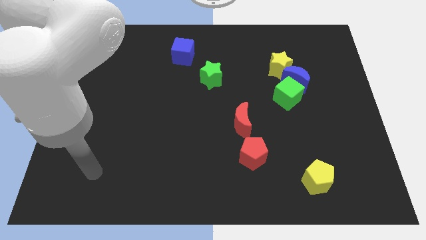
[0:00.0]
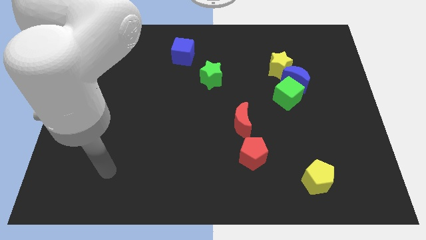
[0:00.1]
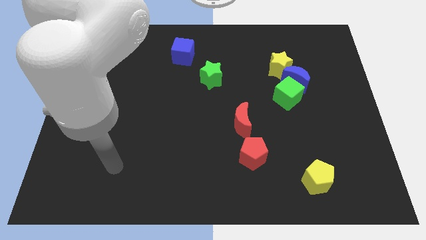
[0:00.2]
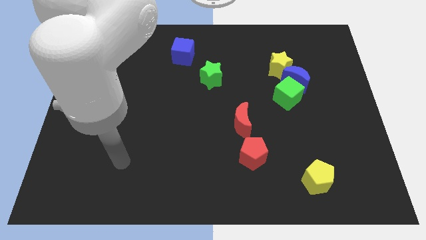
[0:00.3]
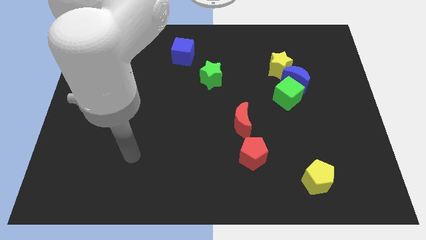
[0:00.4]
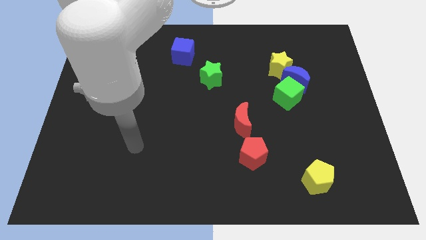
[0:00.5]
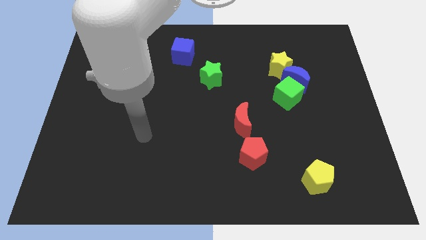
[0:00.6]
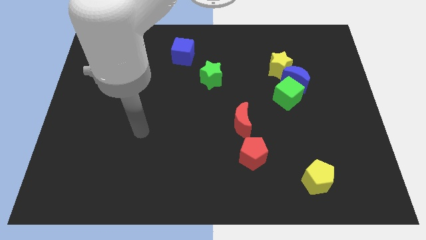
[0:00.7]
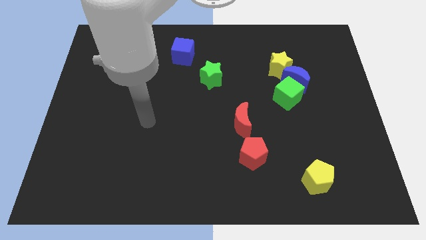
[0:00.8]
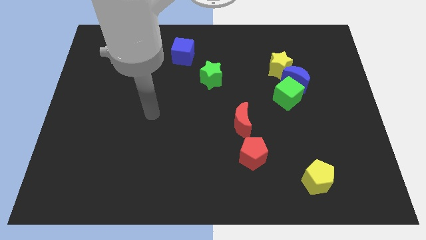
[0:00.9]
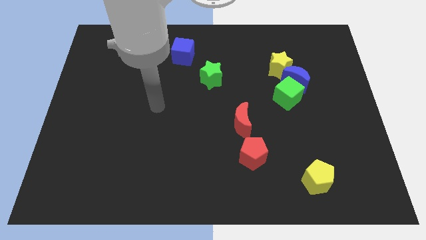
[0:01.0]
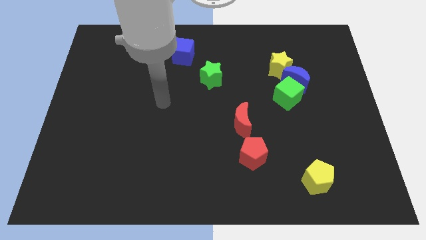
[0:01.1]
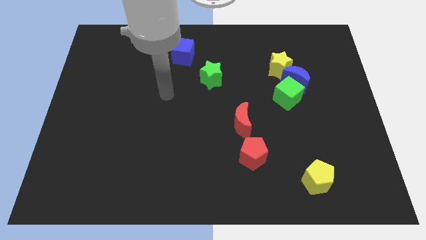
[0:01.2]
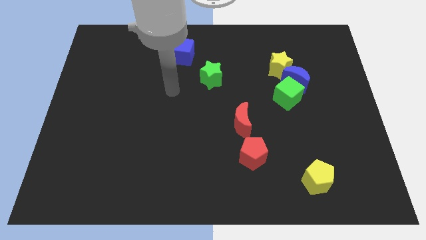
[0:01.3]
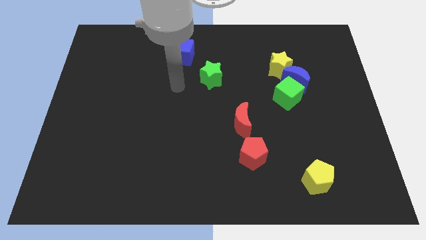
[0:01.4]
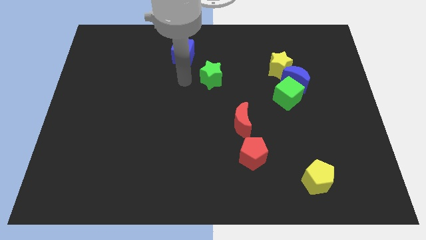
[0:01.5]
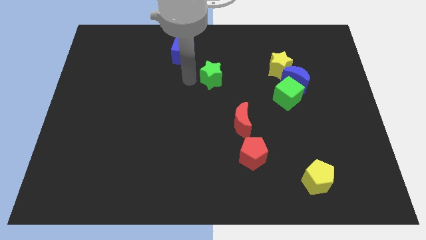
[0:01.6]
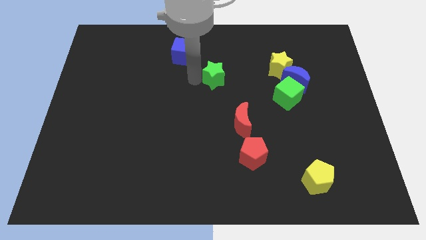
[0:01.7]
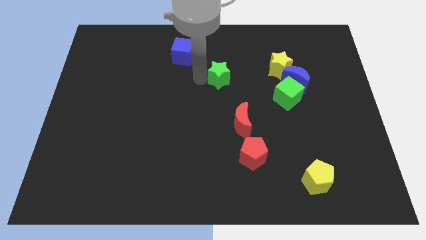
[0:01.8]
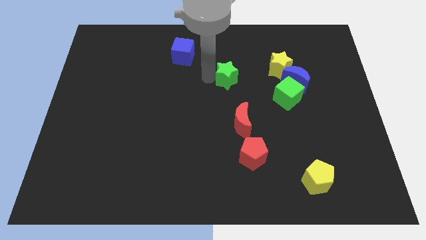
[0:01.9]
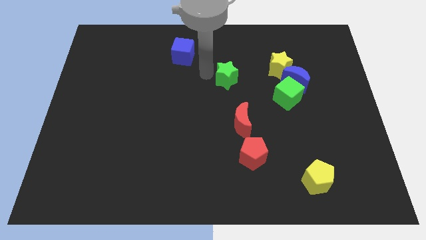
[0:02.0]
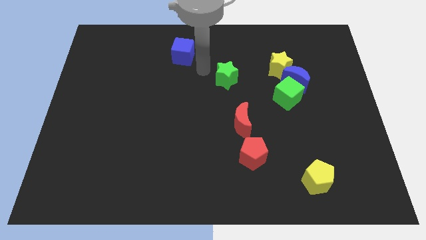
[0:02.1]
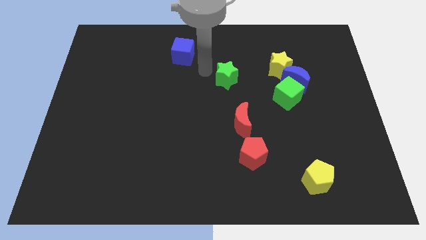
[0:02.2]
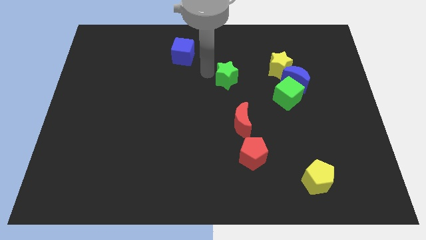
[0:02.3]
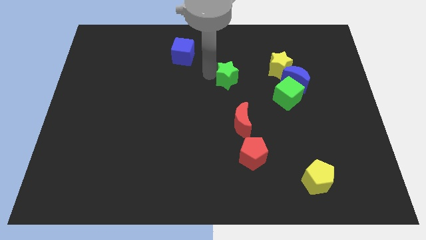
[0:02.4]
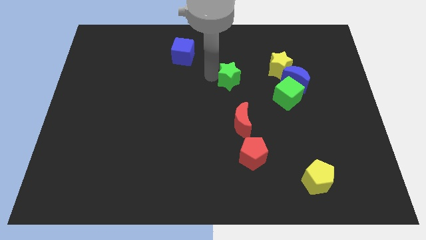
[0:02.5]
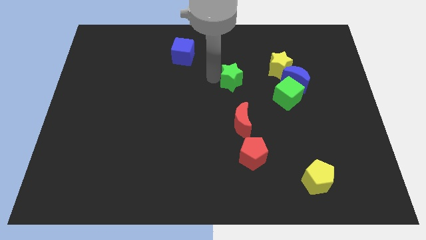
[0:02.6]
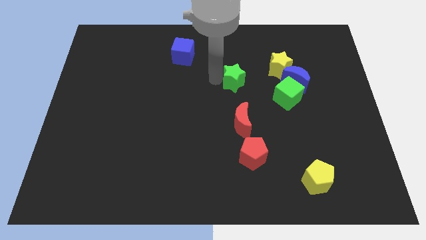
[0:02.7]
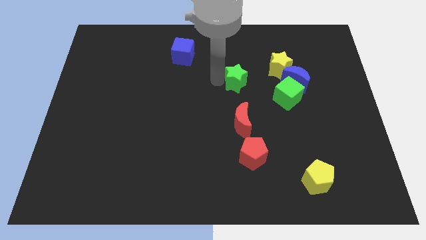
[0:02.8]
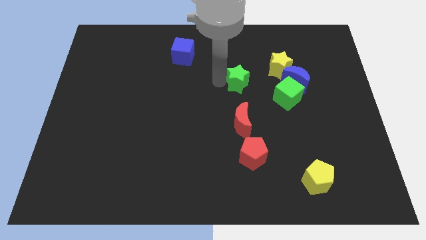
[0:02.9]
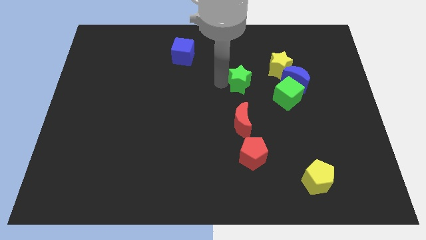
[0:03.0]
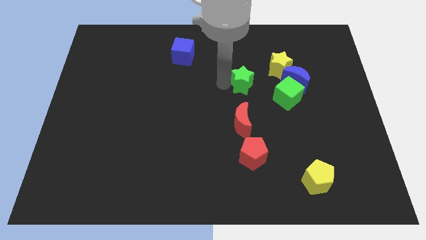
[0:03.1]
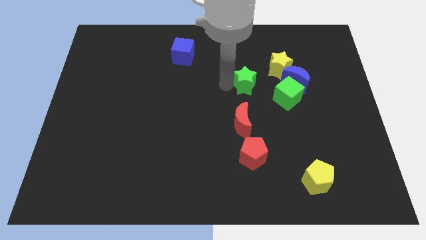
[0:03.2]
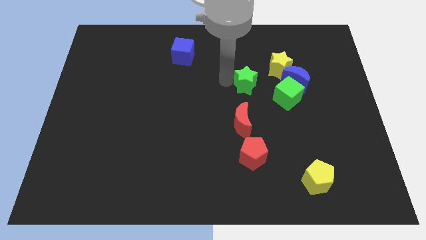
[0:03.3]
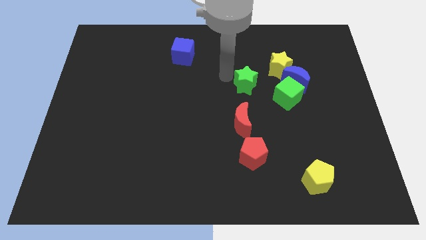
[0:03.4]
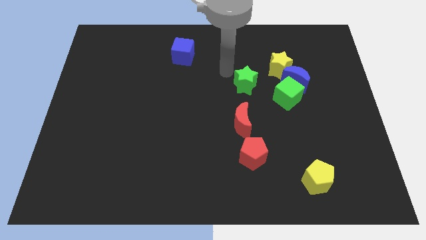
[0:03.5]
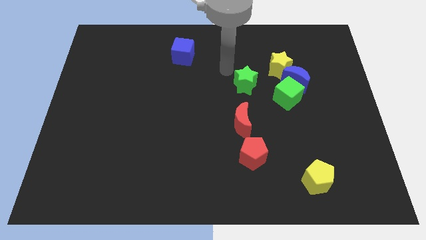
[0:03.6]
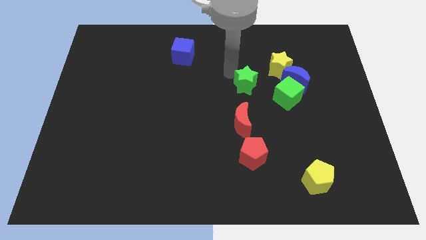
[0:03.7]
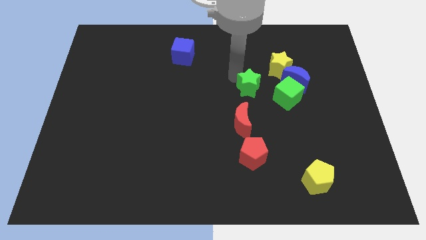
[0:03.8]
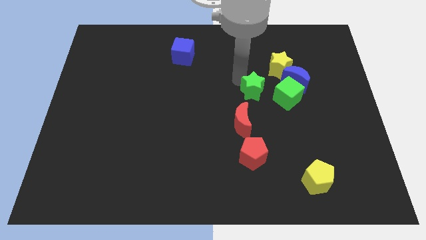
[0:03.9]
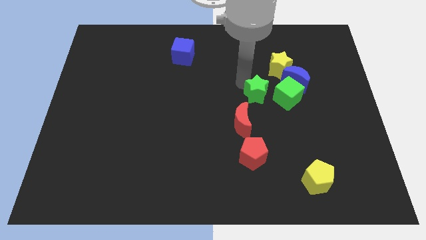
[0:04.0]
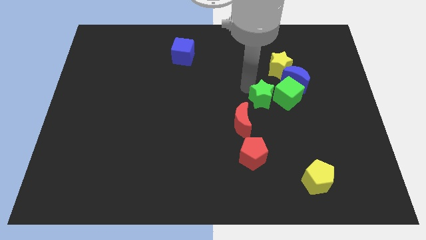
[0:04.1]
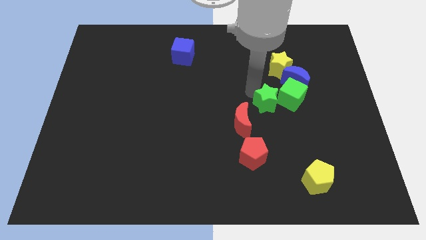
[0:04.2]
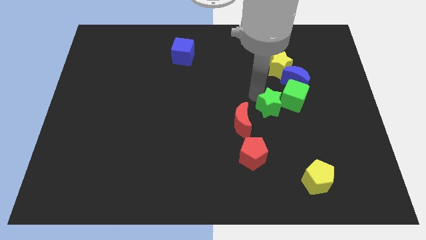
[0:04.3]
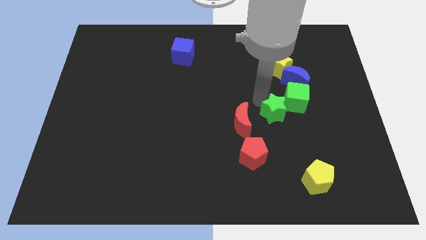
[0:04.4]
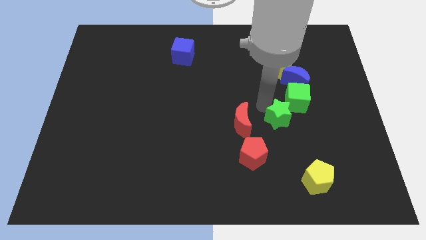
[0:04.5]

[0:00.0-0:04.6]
move the green star down and then to the right

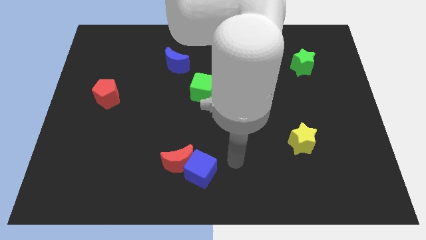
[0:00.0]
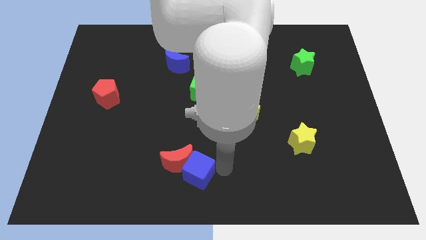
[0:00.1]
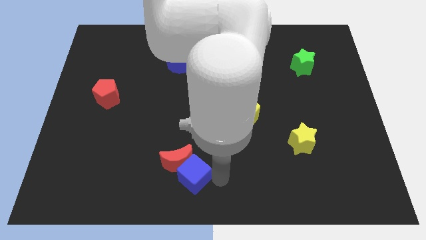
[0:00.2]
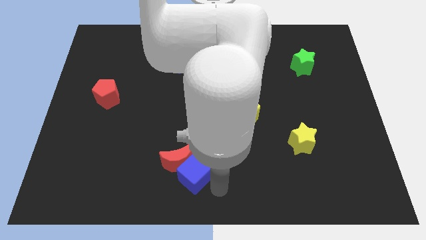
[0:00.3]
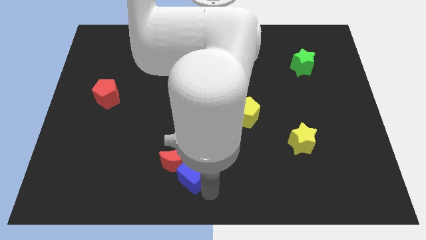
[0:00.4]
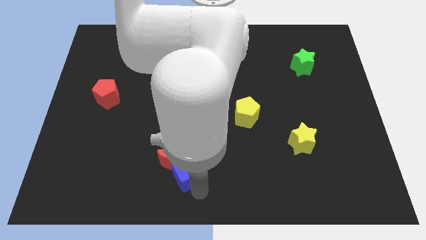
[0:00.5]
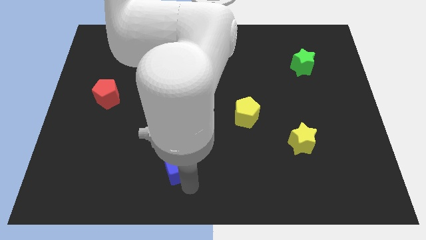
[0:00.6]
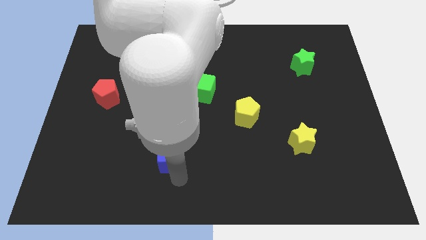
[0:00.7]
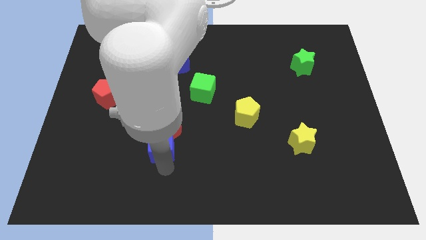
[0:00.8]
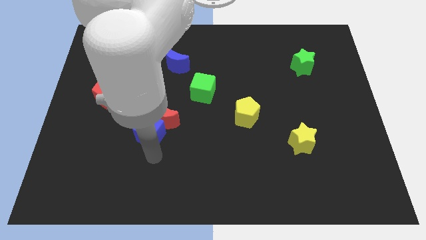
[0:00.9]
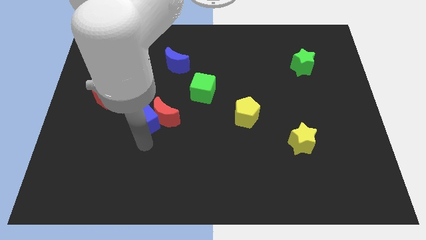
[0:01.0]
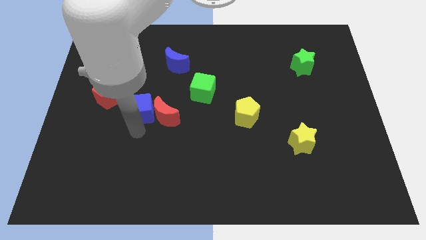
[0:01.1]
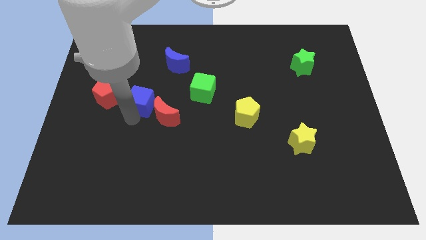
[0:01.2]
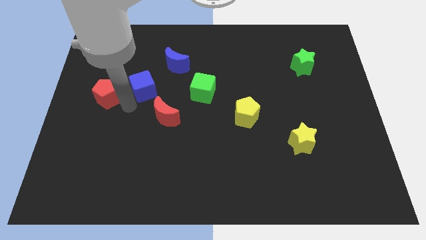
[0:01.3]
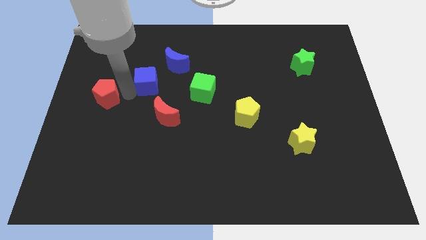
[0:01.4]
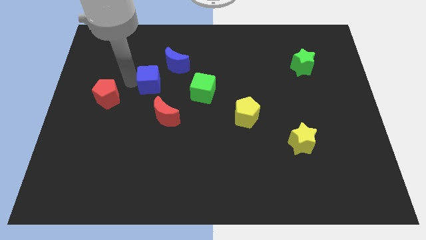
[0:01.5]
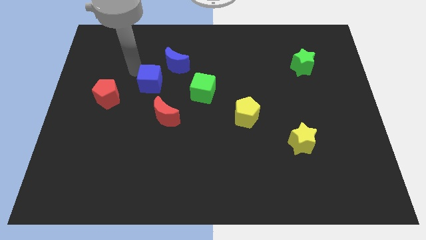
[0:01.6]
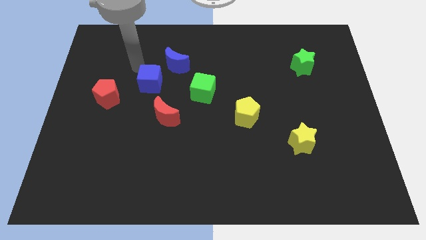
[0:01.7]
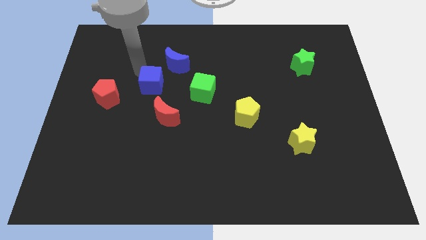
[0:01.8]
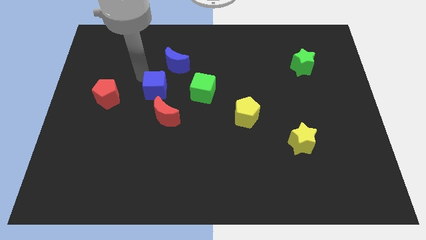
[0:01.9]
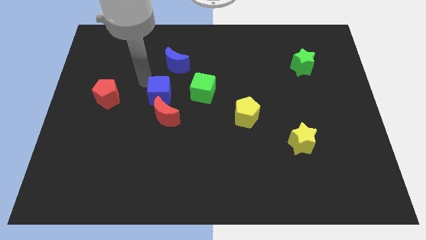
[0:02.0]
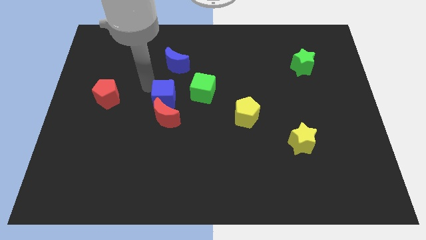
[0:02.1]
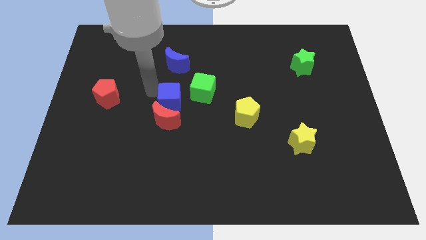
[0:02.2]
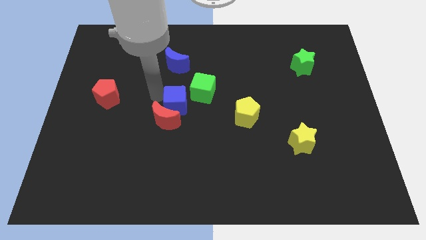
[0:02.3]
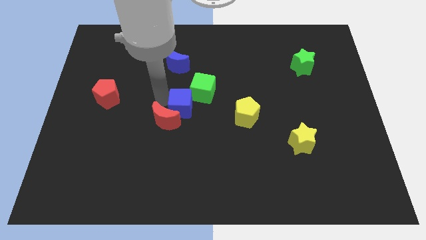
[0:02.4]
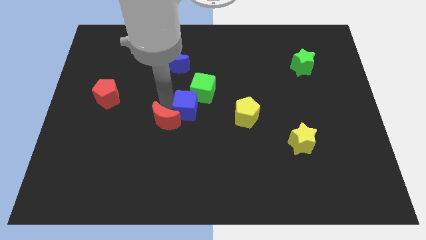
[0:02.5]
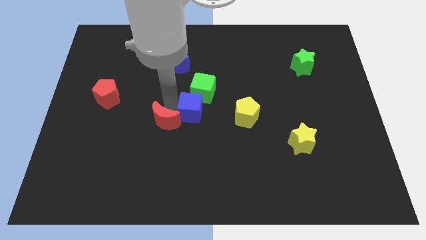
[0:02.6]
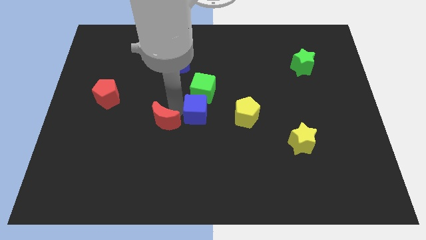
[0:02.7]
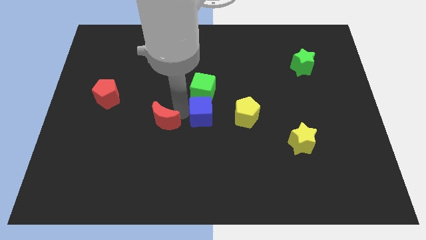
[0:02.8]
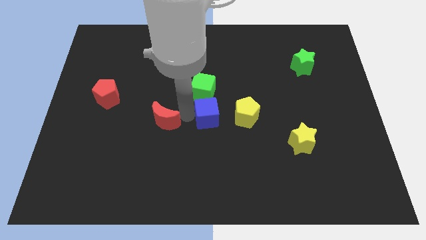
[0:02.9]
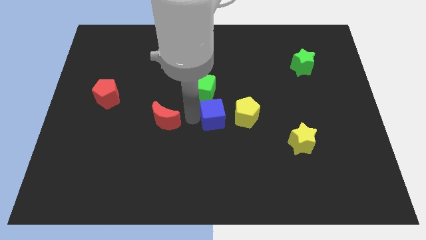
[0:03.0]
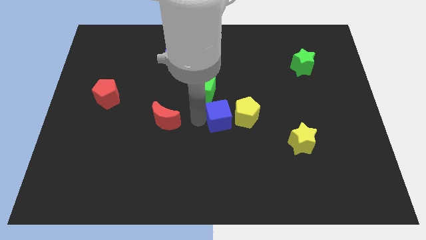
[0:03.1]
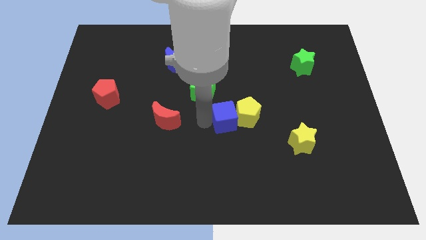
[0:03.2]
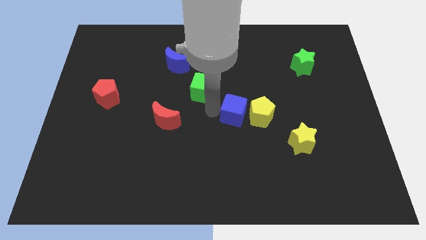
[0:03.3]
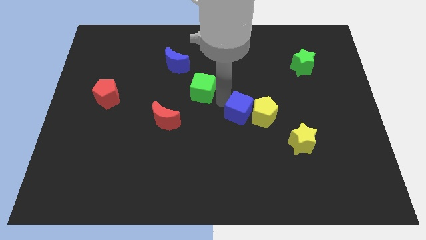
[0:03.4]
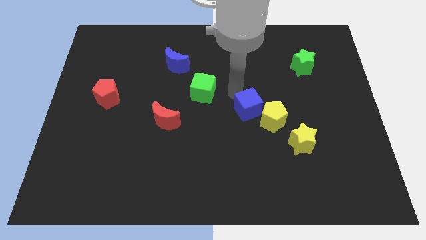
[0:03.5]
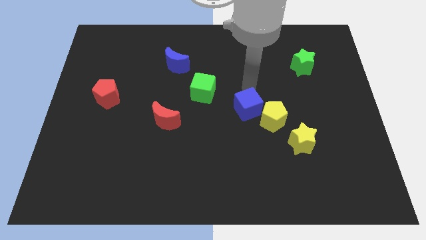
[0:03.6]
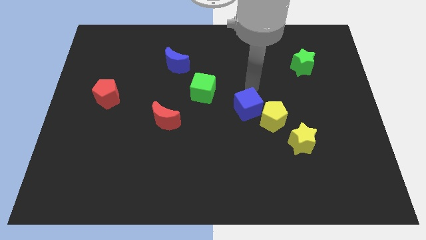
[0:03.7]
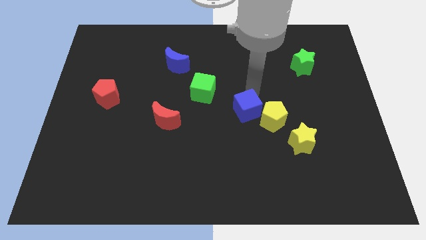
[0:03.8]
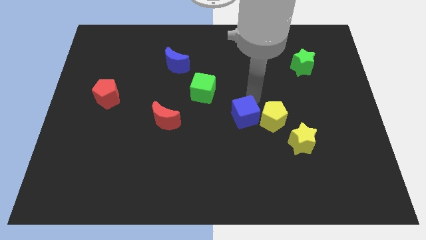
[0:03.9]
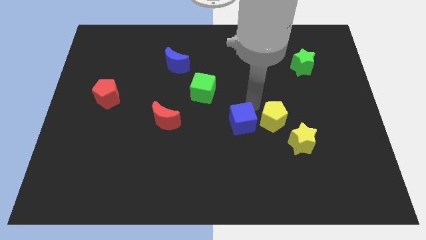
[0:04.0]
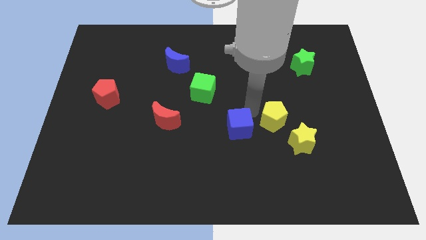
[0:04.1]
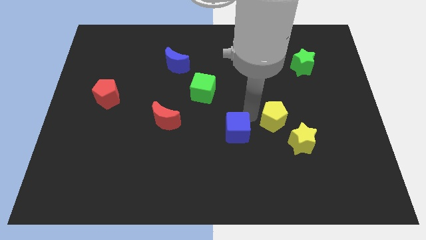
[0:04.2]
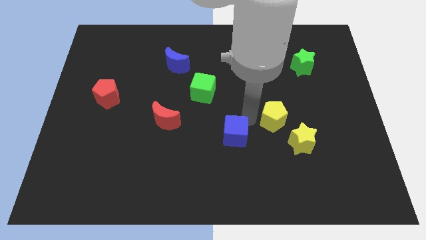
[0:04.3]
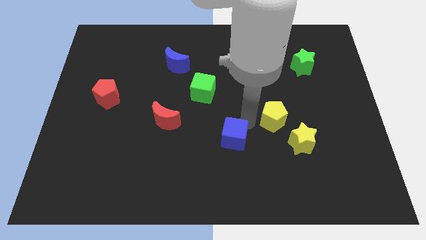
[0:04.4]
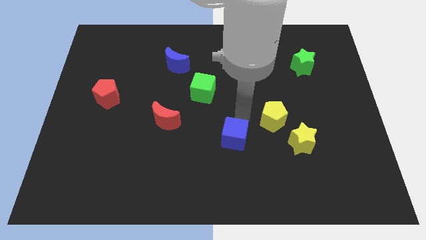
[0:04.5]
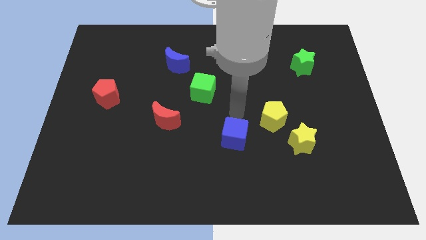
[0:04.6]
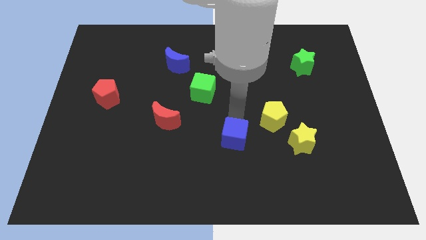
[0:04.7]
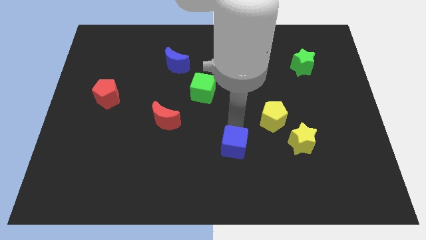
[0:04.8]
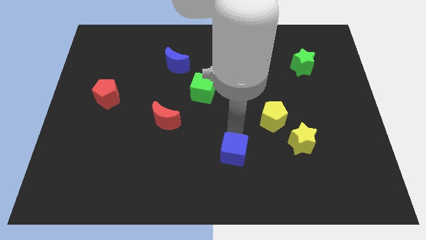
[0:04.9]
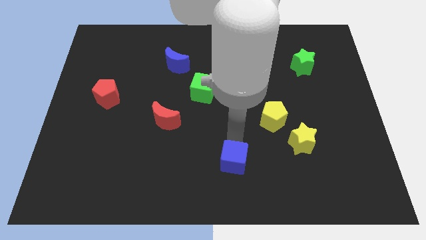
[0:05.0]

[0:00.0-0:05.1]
slightly slide the blue cube to the right
